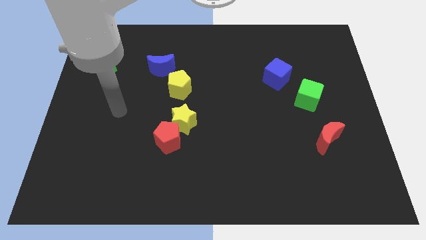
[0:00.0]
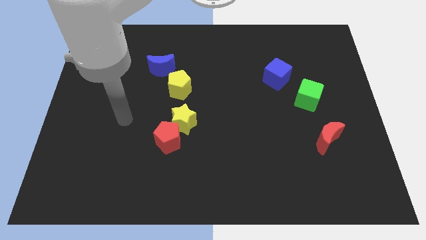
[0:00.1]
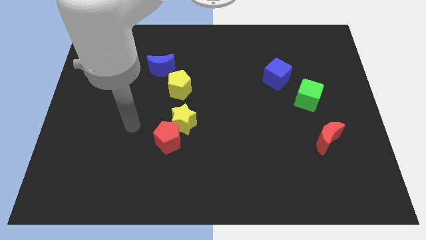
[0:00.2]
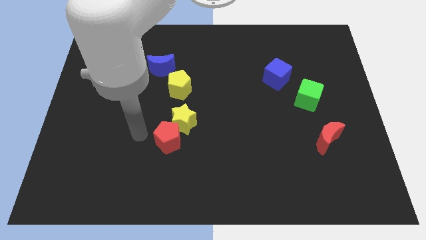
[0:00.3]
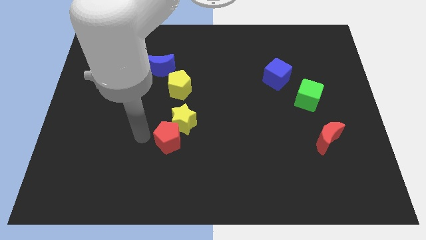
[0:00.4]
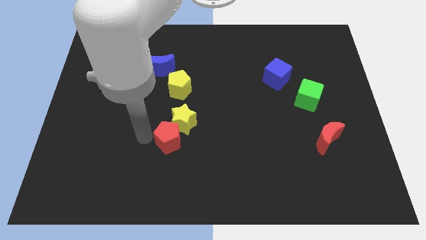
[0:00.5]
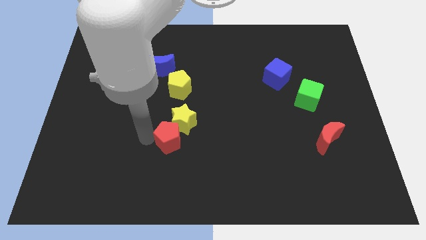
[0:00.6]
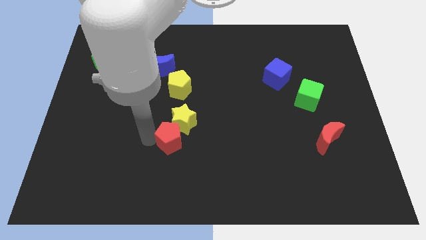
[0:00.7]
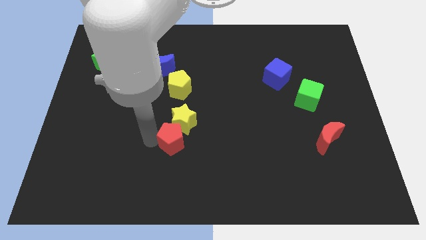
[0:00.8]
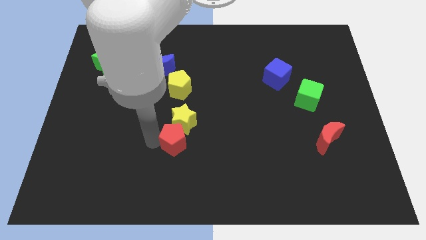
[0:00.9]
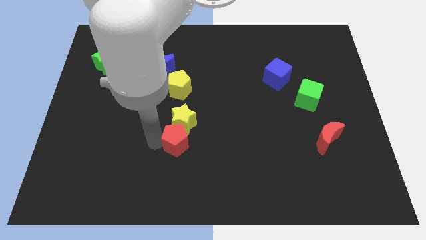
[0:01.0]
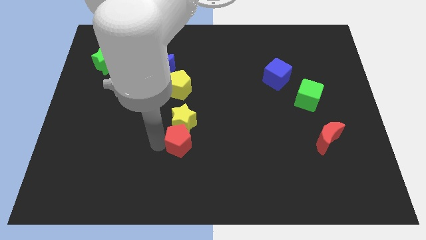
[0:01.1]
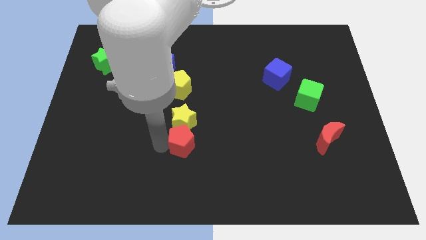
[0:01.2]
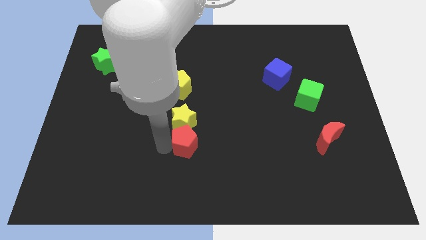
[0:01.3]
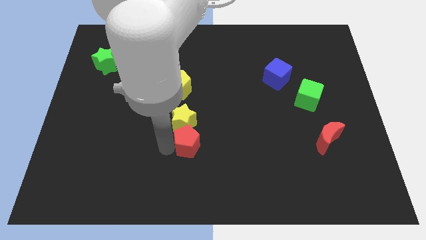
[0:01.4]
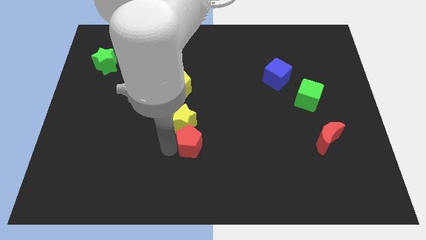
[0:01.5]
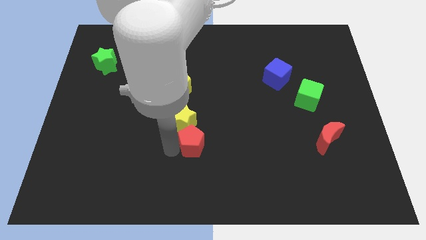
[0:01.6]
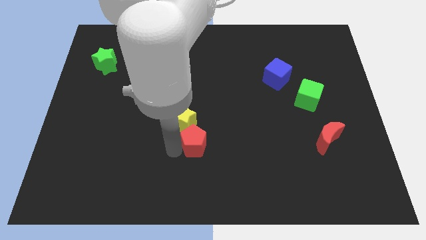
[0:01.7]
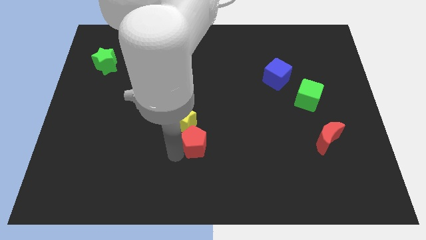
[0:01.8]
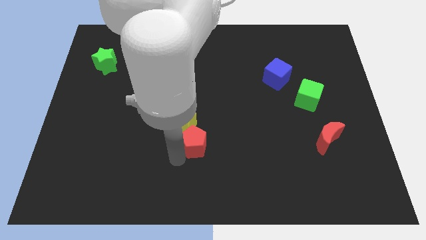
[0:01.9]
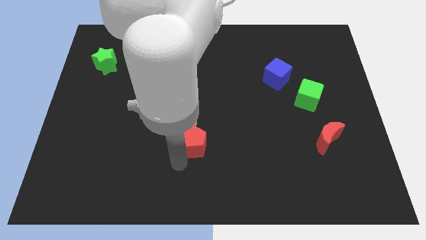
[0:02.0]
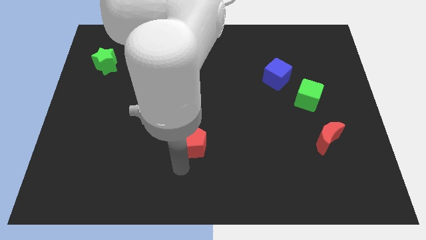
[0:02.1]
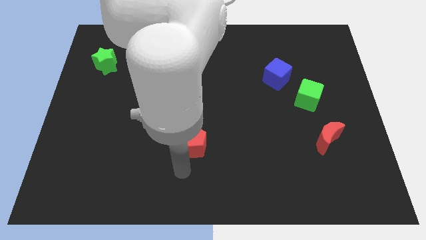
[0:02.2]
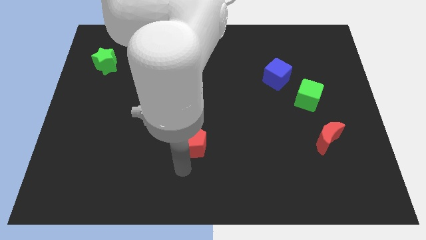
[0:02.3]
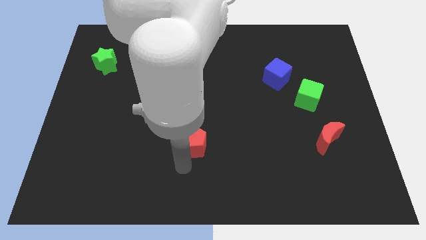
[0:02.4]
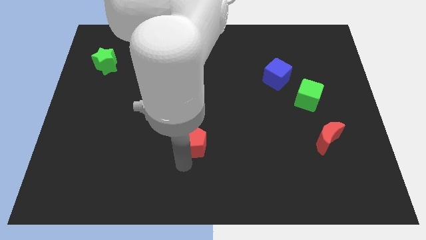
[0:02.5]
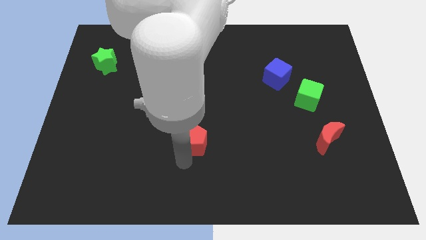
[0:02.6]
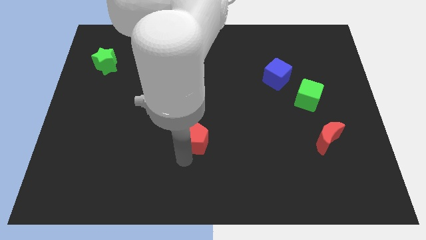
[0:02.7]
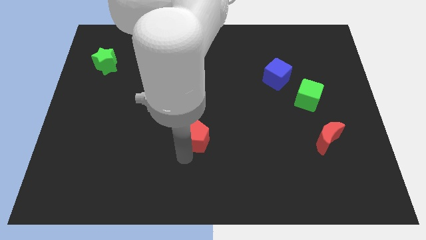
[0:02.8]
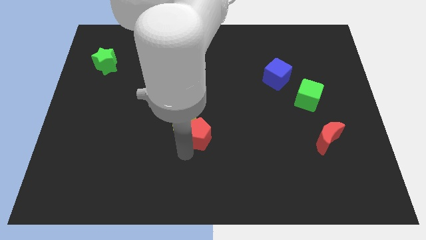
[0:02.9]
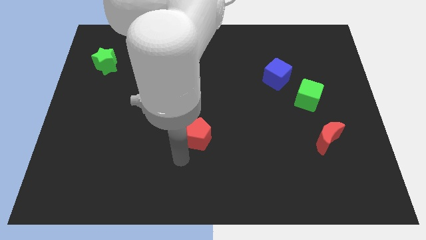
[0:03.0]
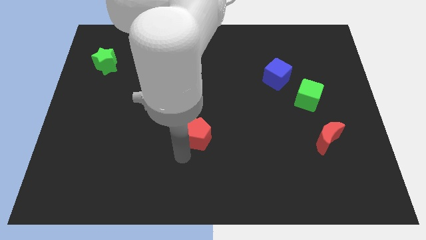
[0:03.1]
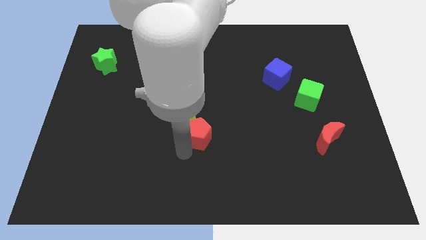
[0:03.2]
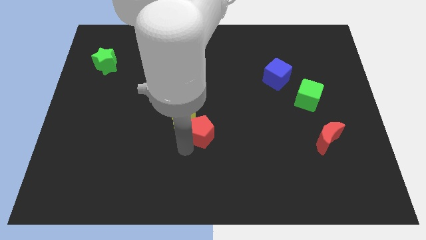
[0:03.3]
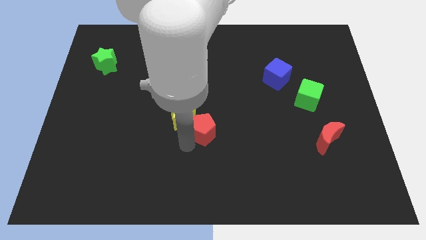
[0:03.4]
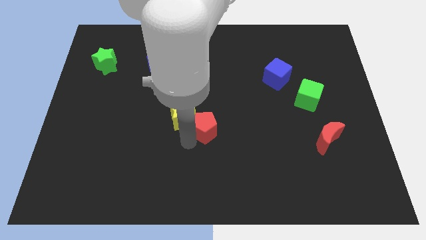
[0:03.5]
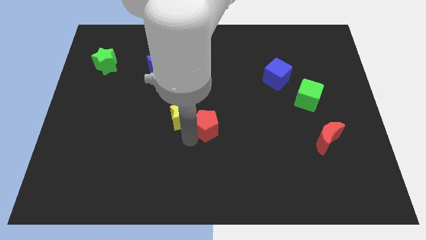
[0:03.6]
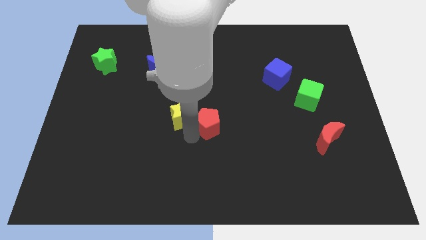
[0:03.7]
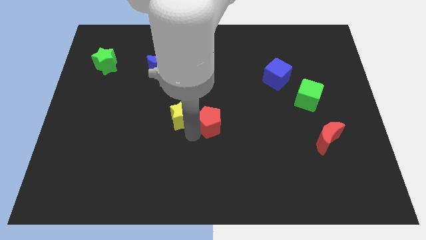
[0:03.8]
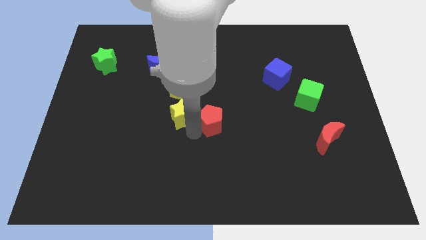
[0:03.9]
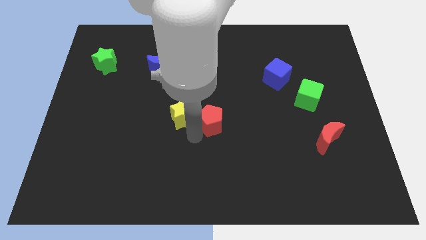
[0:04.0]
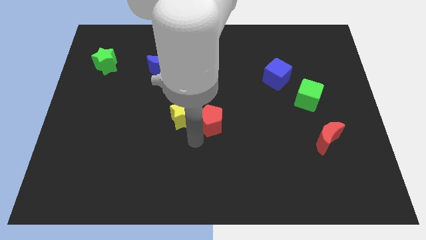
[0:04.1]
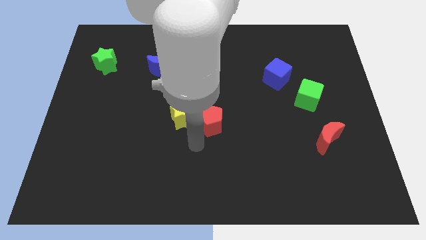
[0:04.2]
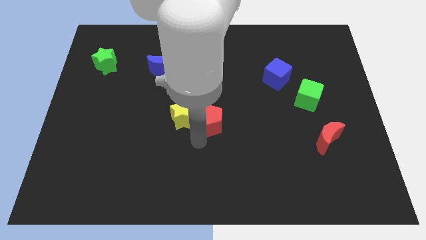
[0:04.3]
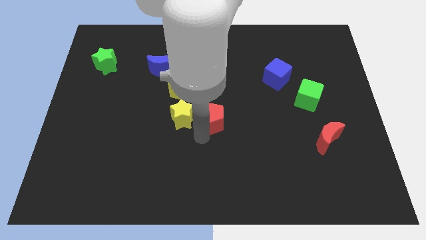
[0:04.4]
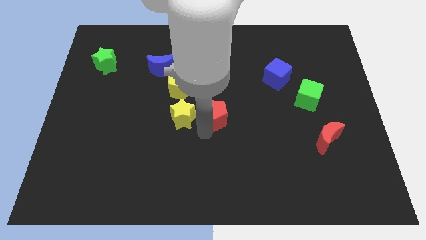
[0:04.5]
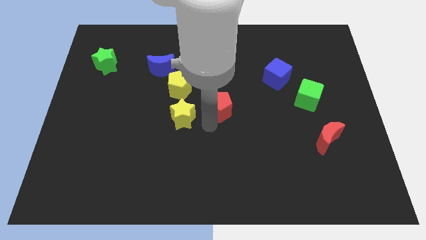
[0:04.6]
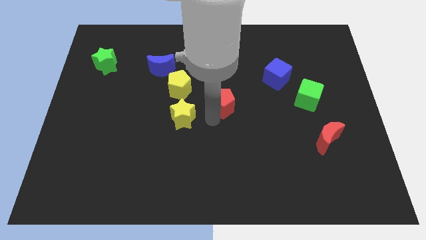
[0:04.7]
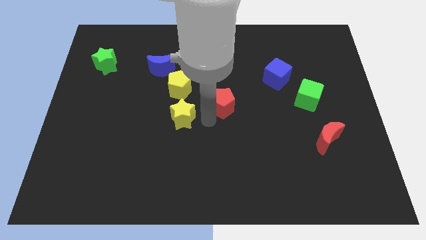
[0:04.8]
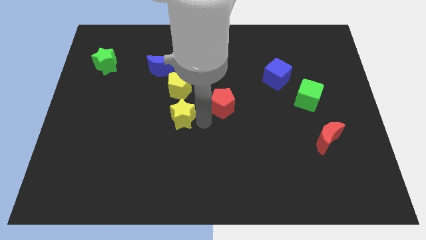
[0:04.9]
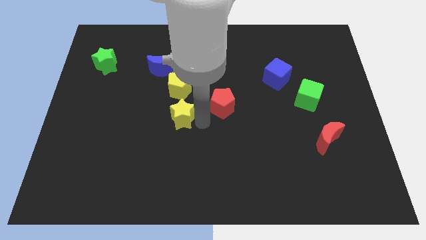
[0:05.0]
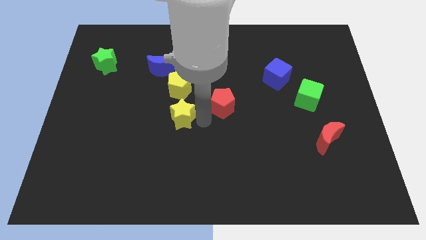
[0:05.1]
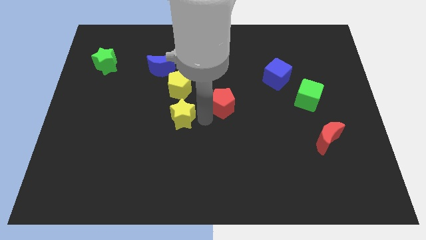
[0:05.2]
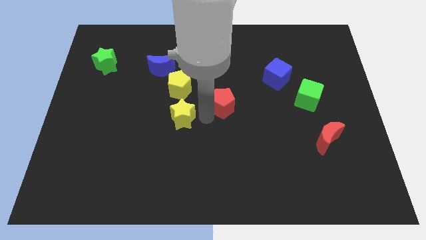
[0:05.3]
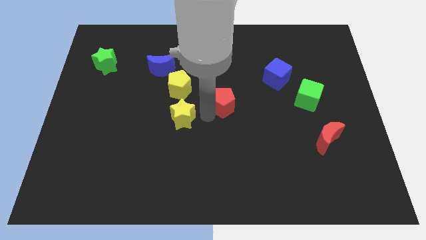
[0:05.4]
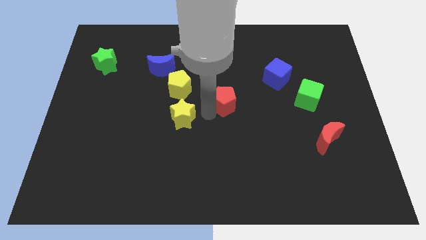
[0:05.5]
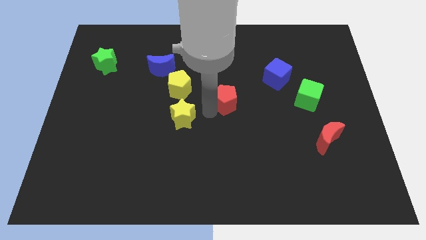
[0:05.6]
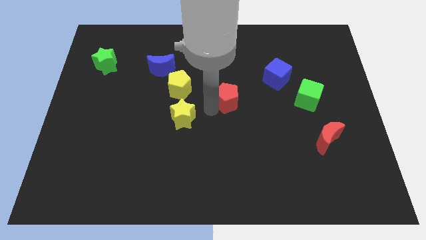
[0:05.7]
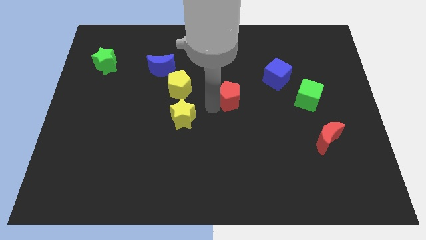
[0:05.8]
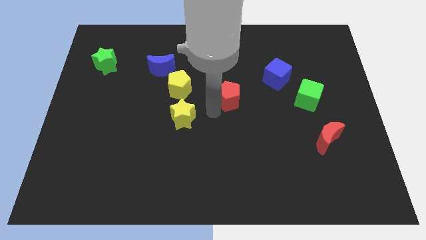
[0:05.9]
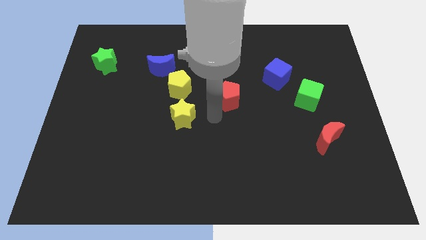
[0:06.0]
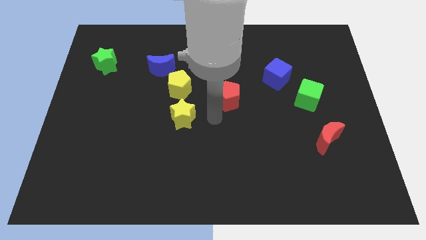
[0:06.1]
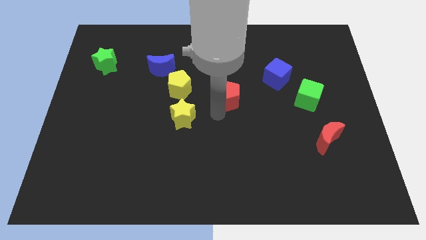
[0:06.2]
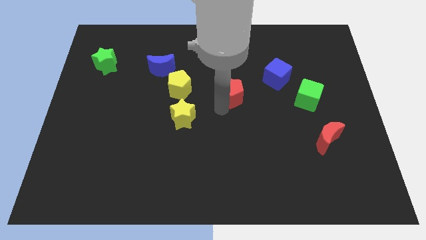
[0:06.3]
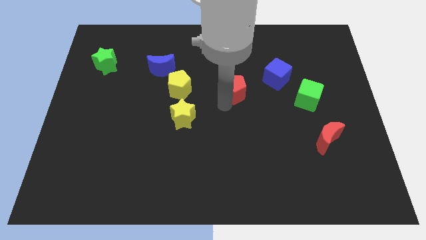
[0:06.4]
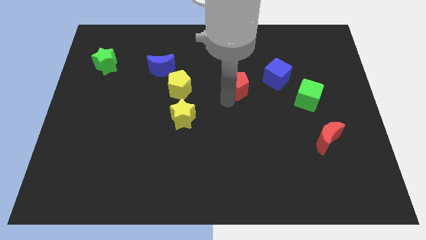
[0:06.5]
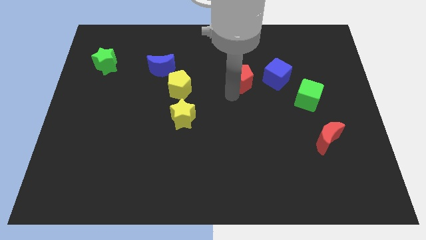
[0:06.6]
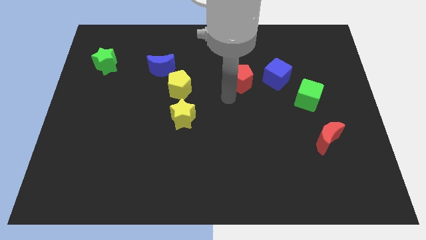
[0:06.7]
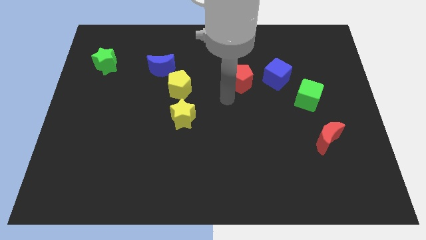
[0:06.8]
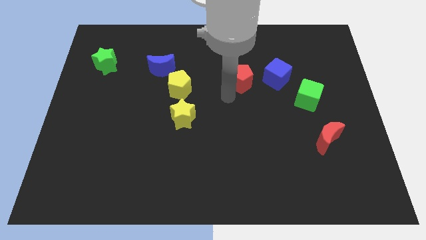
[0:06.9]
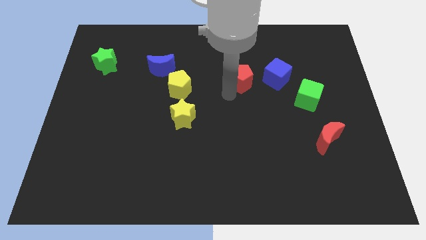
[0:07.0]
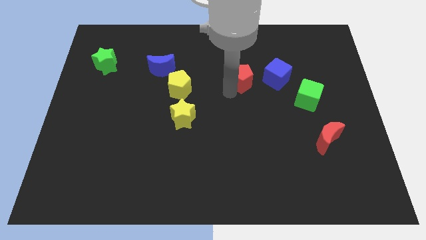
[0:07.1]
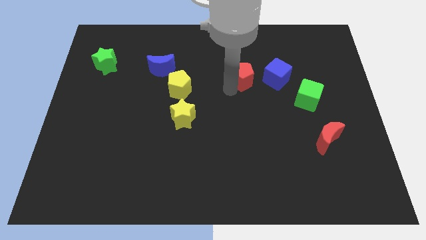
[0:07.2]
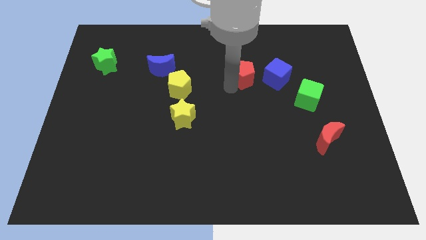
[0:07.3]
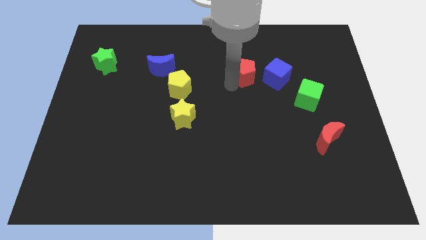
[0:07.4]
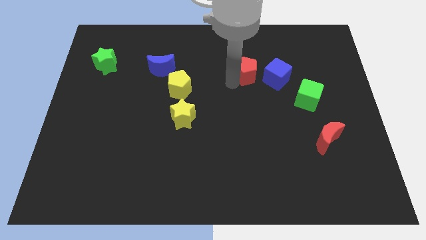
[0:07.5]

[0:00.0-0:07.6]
push the red pentagon diagonally up and to the left of the blue cube
